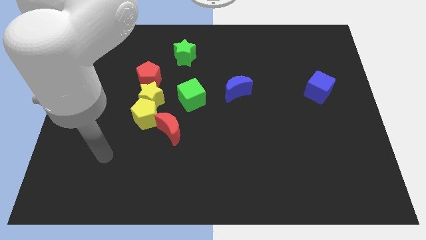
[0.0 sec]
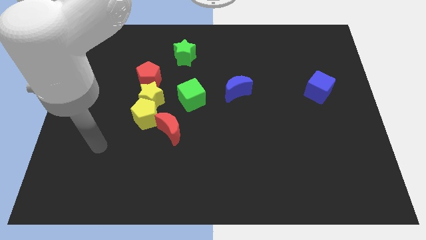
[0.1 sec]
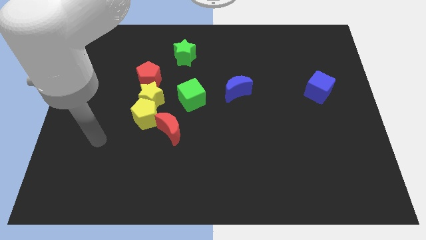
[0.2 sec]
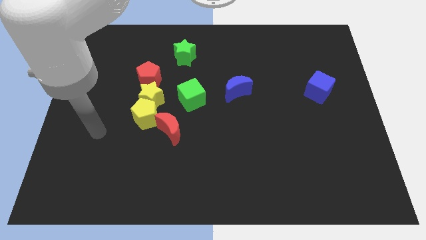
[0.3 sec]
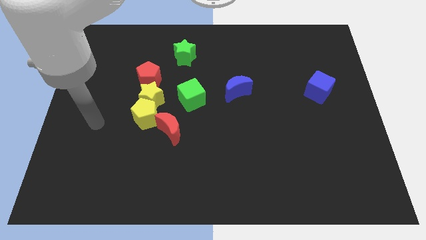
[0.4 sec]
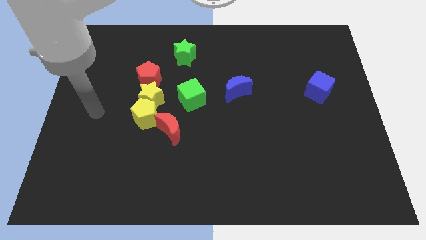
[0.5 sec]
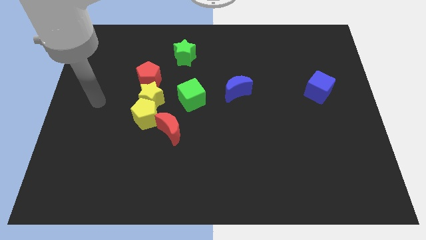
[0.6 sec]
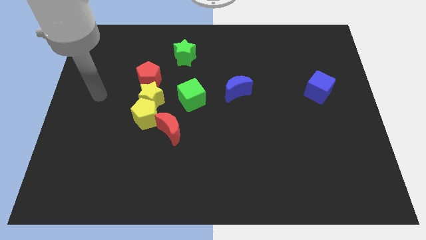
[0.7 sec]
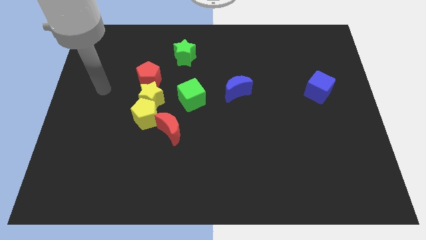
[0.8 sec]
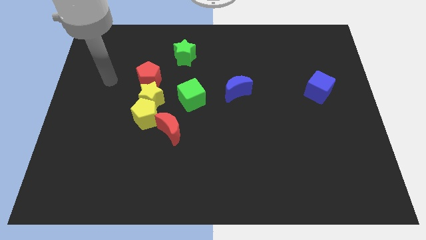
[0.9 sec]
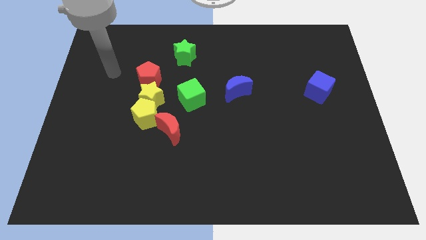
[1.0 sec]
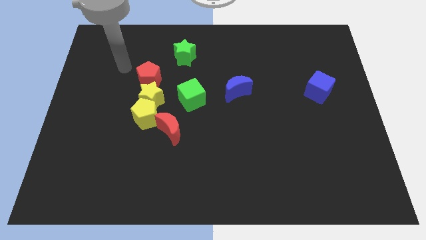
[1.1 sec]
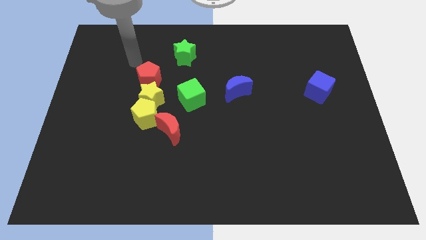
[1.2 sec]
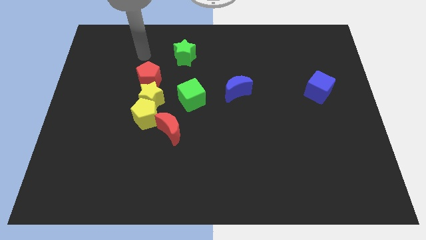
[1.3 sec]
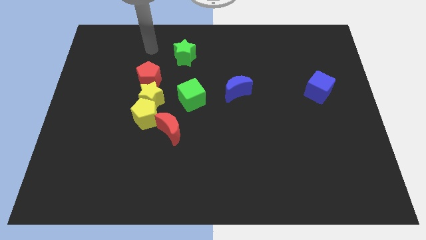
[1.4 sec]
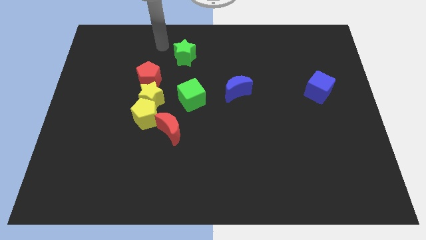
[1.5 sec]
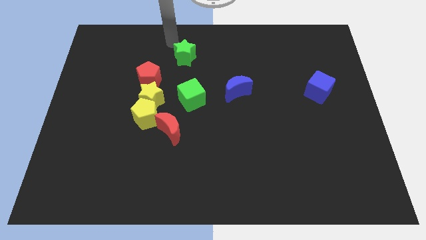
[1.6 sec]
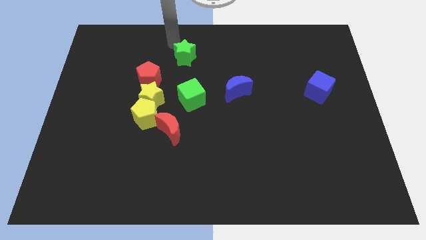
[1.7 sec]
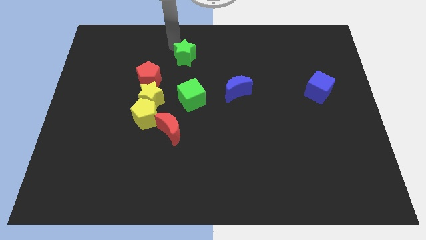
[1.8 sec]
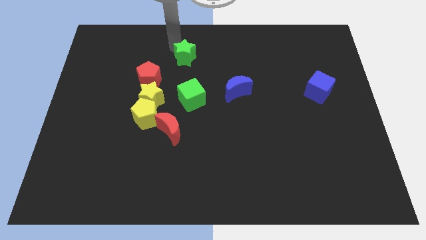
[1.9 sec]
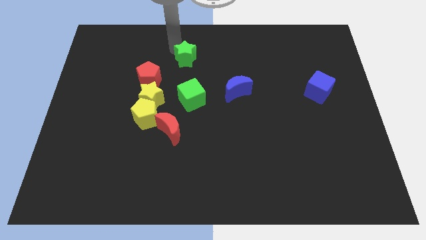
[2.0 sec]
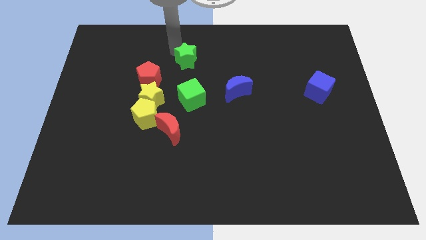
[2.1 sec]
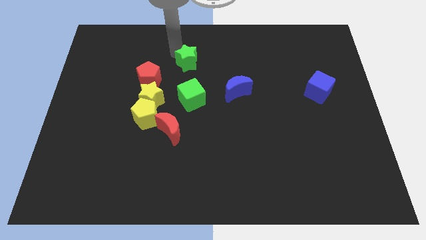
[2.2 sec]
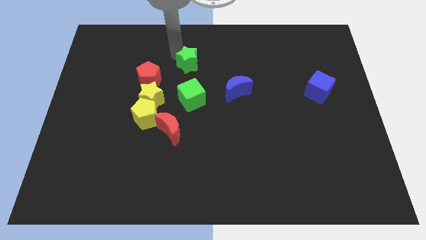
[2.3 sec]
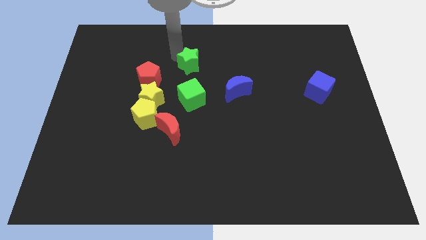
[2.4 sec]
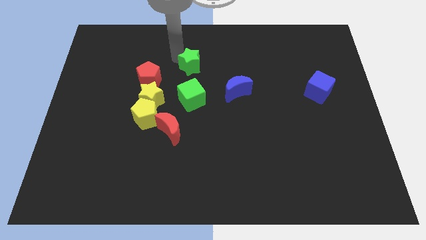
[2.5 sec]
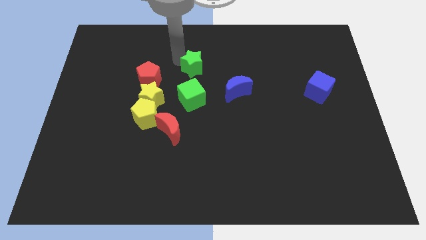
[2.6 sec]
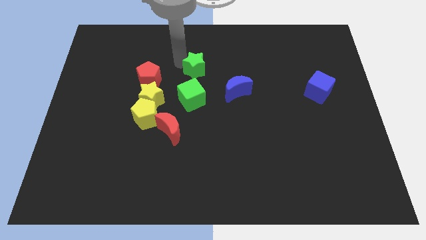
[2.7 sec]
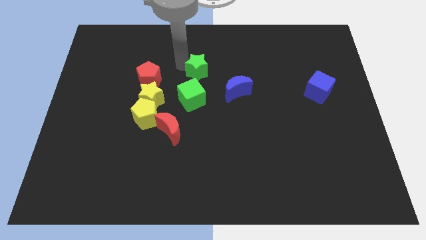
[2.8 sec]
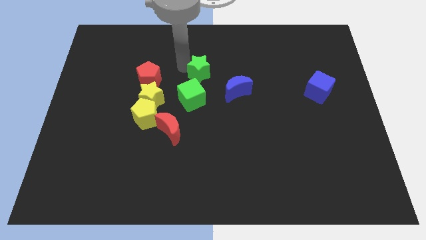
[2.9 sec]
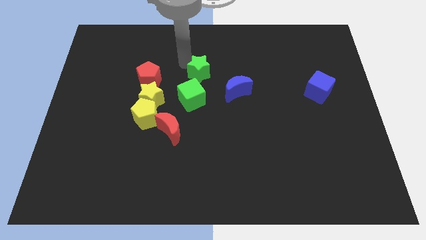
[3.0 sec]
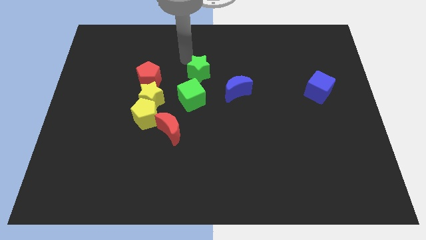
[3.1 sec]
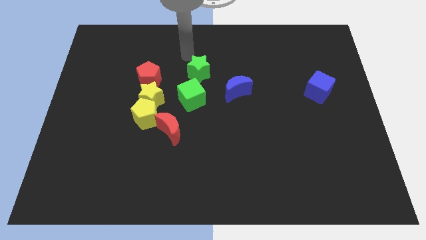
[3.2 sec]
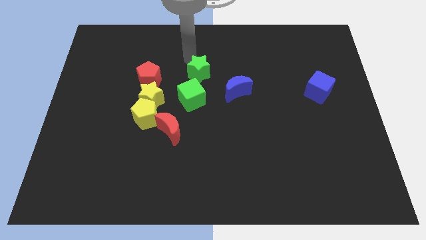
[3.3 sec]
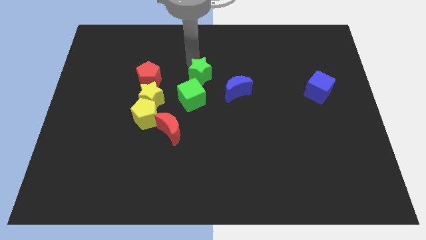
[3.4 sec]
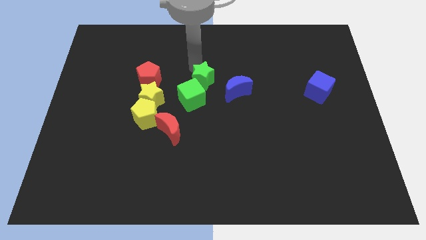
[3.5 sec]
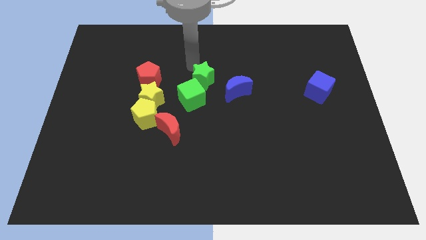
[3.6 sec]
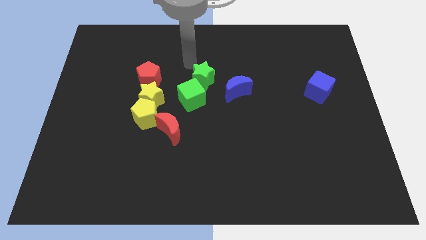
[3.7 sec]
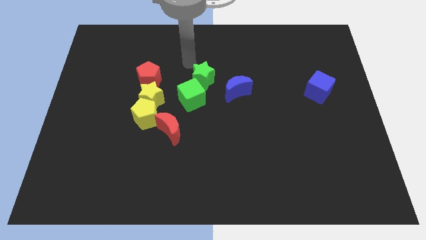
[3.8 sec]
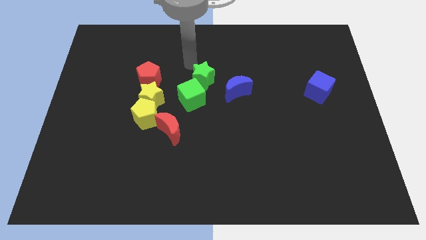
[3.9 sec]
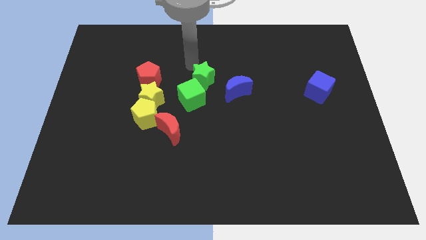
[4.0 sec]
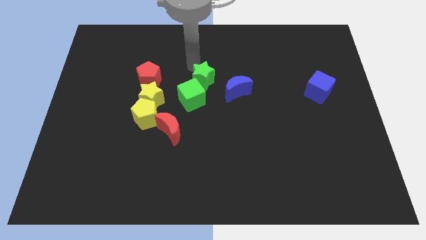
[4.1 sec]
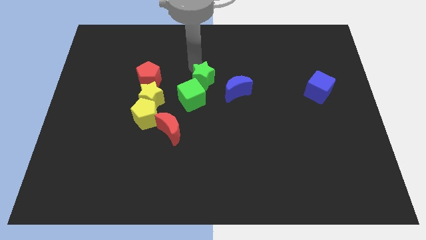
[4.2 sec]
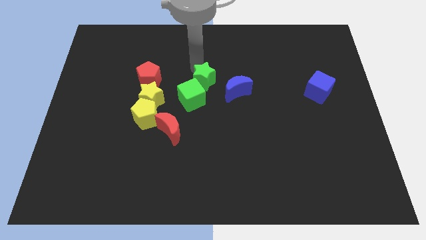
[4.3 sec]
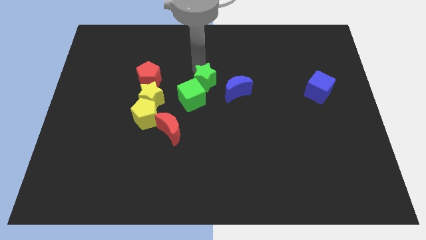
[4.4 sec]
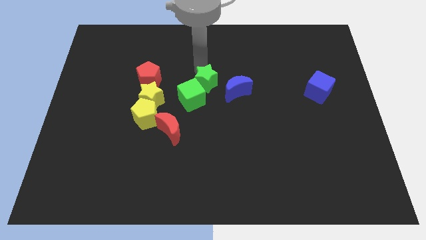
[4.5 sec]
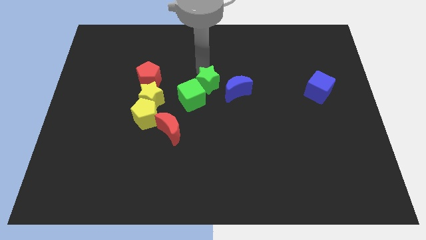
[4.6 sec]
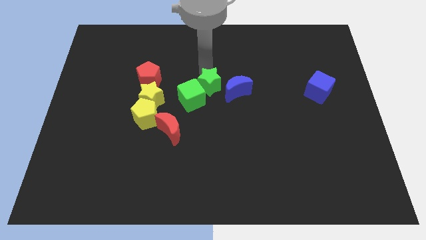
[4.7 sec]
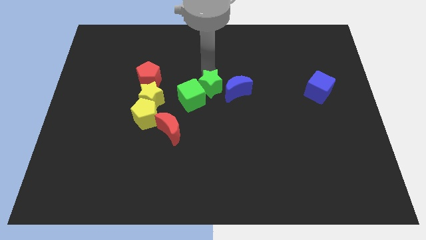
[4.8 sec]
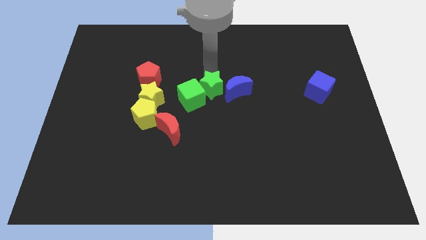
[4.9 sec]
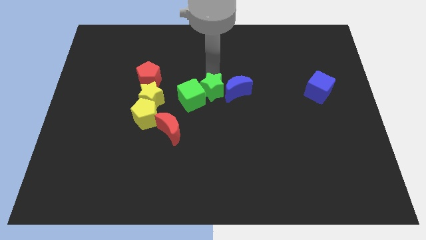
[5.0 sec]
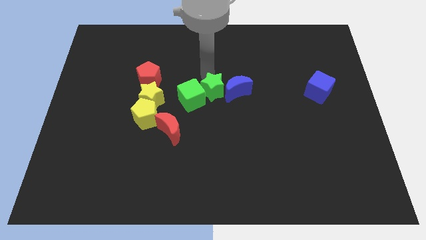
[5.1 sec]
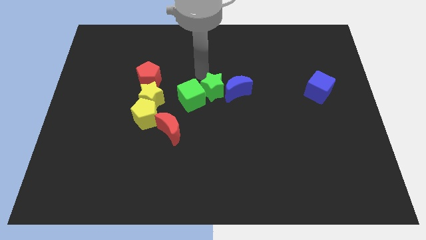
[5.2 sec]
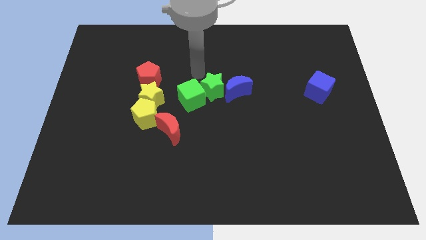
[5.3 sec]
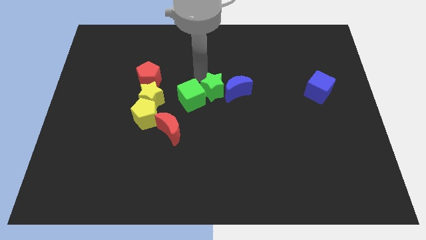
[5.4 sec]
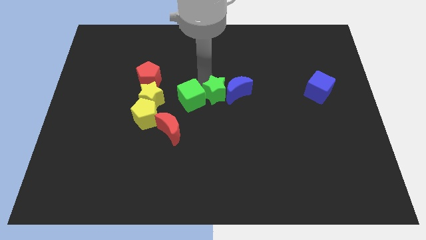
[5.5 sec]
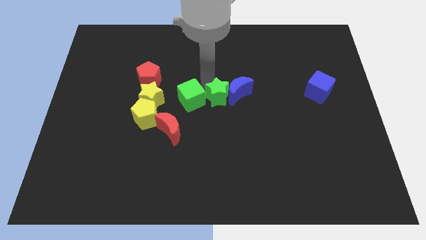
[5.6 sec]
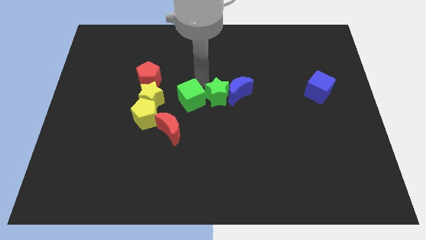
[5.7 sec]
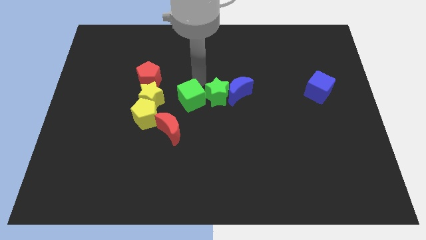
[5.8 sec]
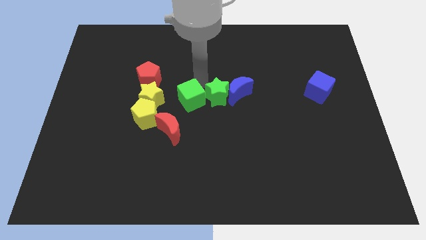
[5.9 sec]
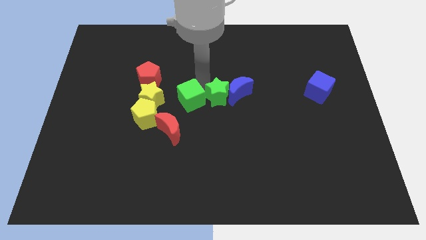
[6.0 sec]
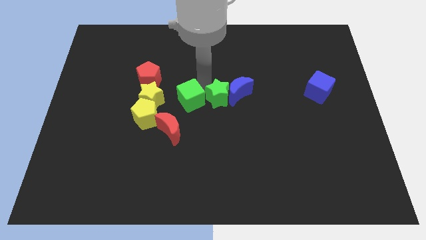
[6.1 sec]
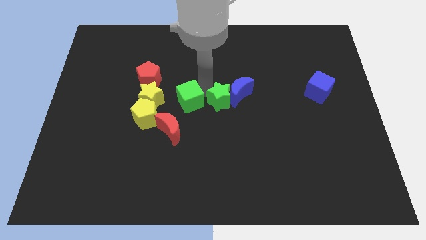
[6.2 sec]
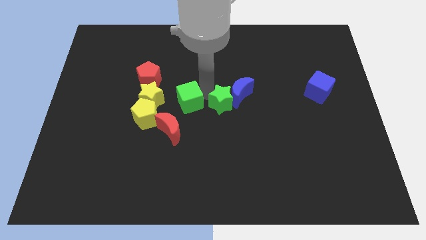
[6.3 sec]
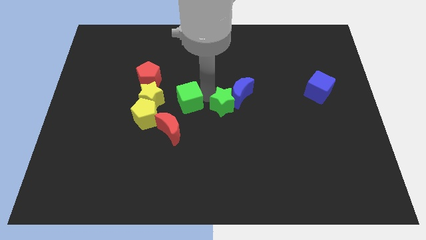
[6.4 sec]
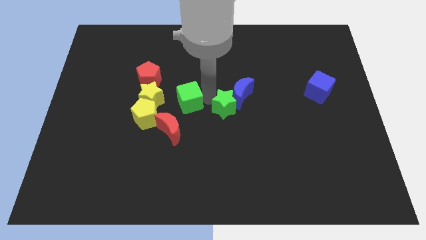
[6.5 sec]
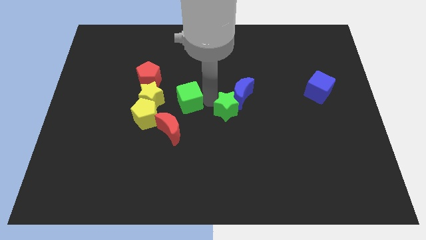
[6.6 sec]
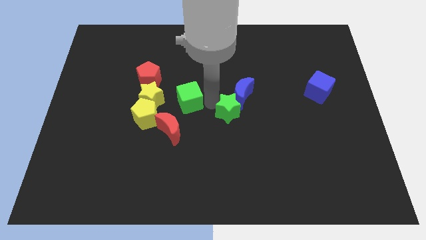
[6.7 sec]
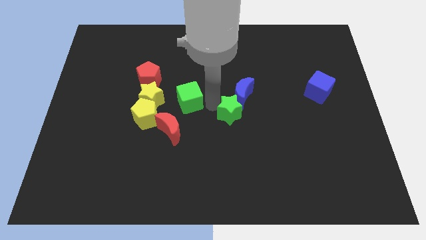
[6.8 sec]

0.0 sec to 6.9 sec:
push the green star diagonally down and right

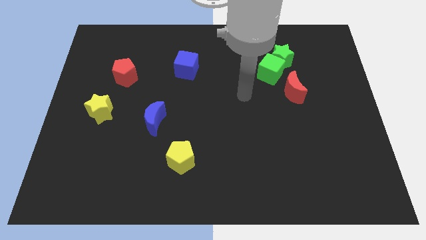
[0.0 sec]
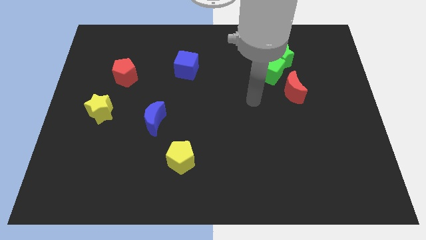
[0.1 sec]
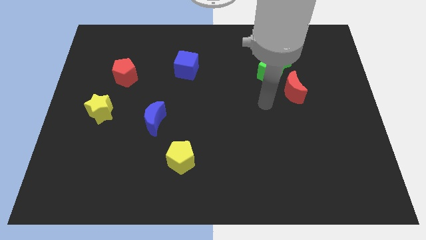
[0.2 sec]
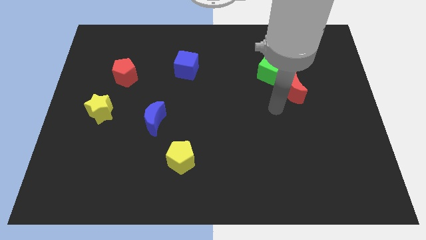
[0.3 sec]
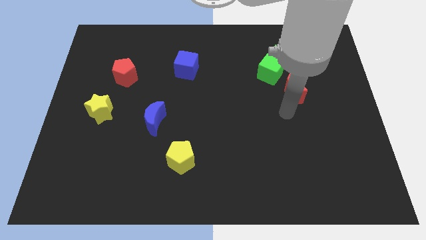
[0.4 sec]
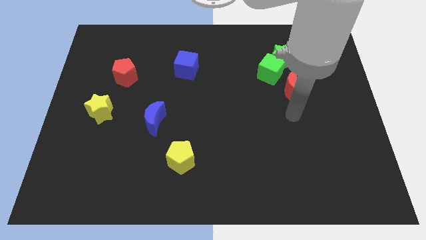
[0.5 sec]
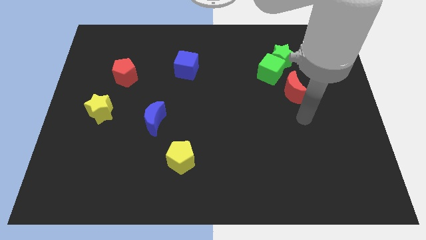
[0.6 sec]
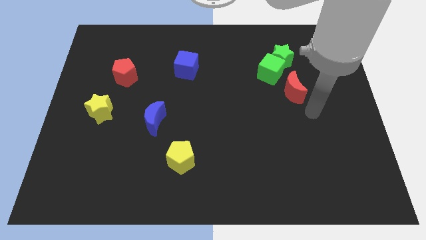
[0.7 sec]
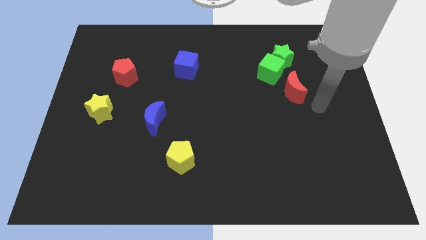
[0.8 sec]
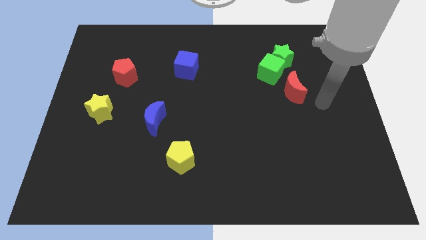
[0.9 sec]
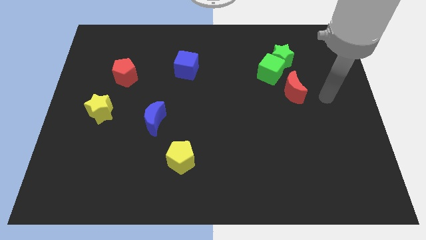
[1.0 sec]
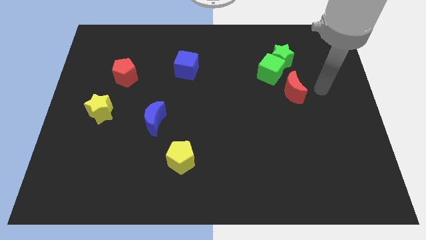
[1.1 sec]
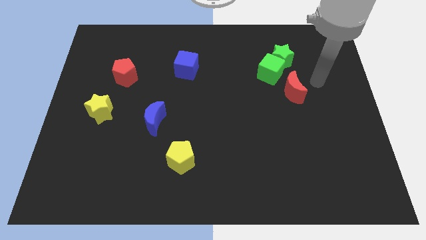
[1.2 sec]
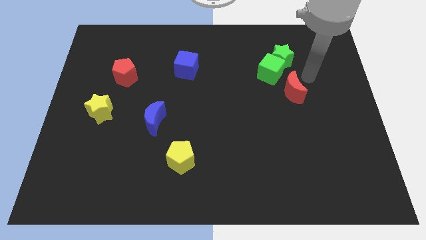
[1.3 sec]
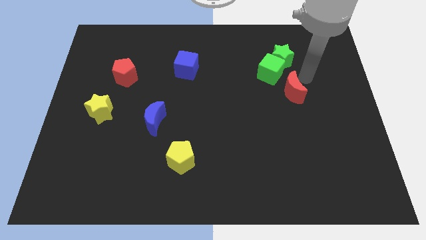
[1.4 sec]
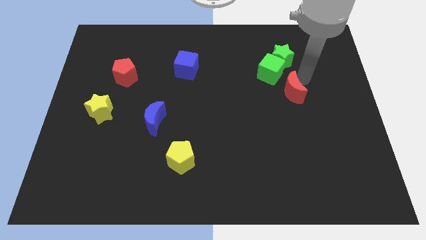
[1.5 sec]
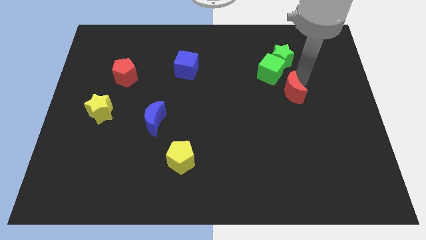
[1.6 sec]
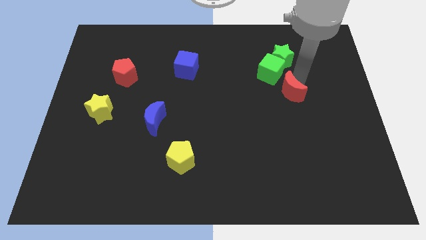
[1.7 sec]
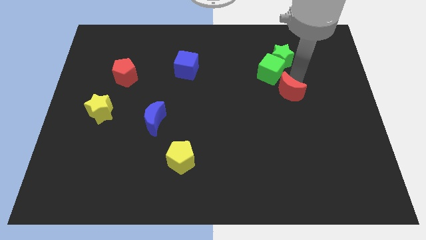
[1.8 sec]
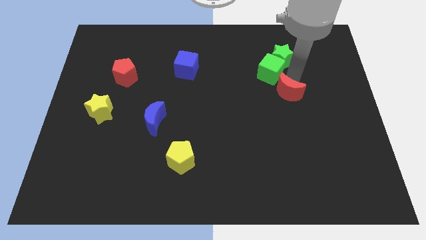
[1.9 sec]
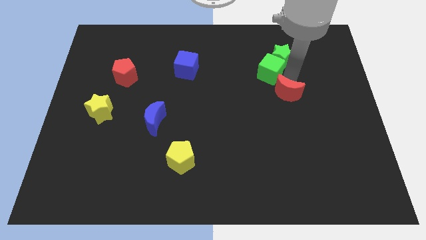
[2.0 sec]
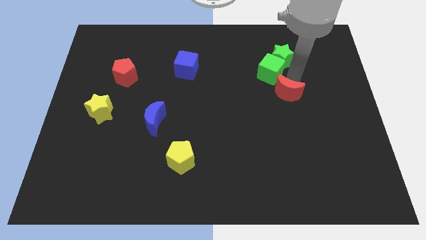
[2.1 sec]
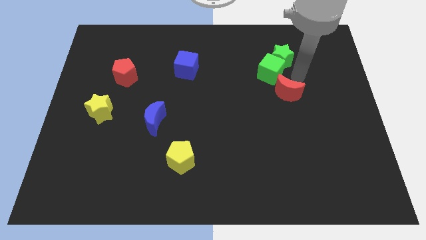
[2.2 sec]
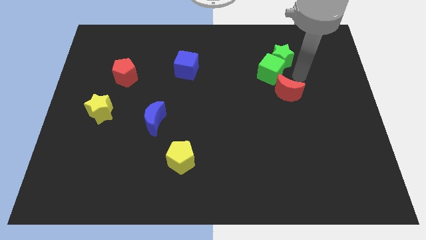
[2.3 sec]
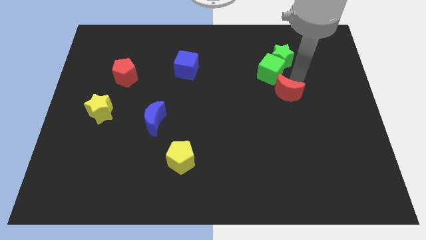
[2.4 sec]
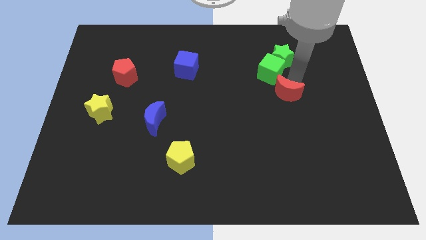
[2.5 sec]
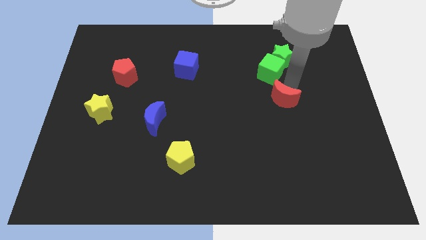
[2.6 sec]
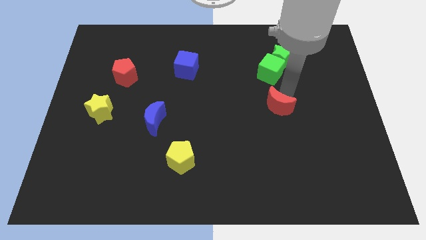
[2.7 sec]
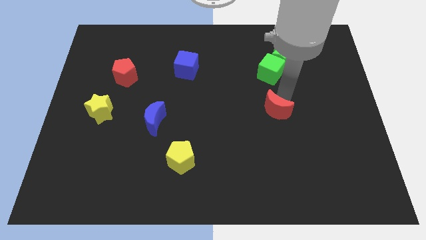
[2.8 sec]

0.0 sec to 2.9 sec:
move the red moon diagonally down and left a little
